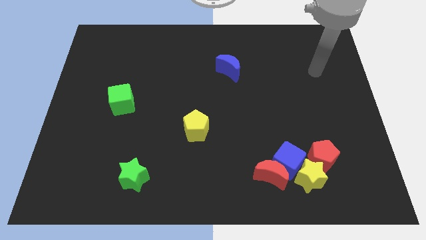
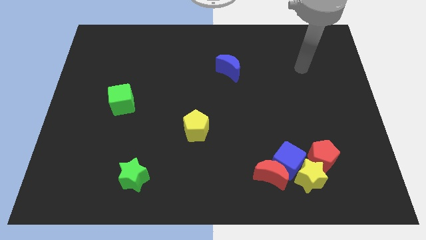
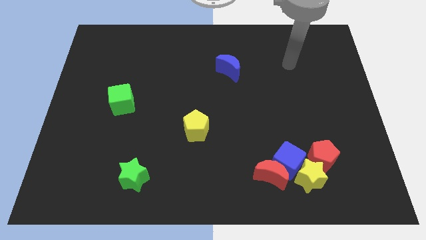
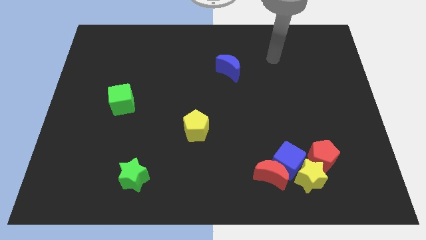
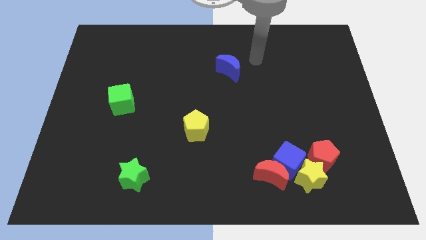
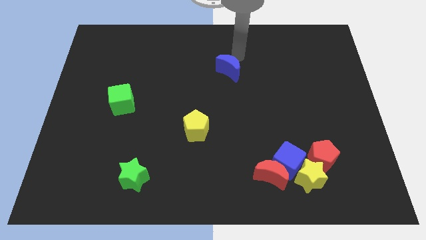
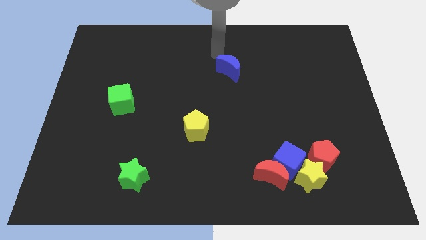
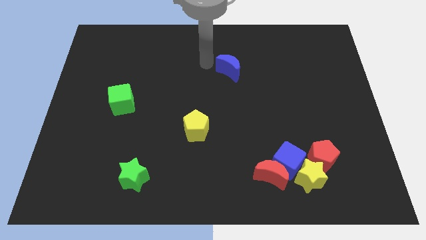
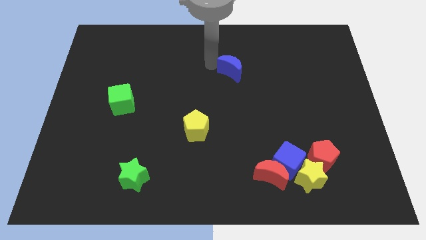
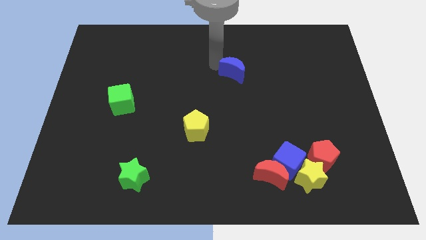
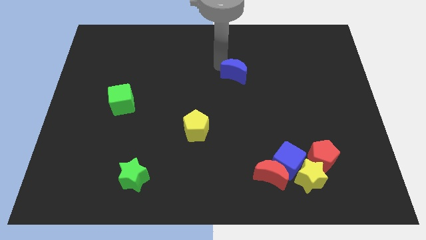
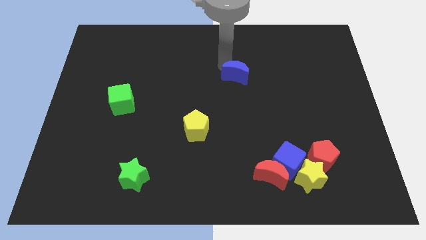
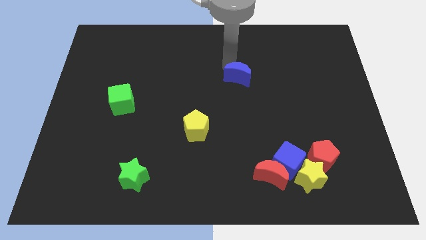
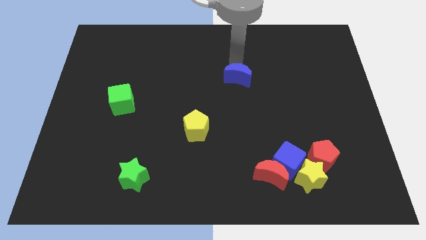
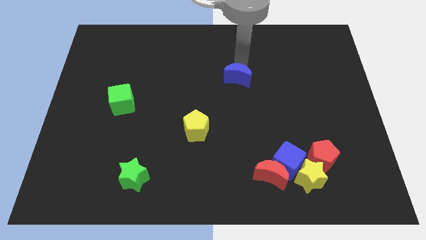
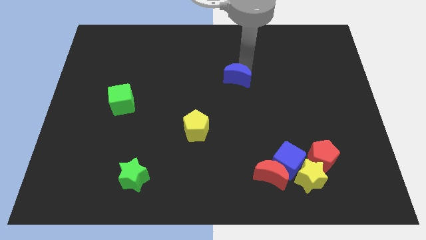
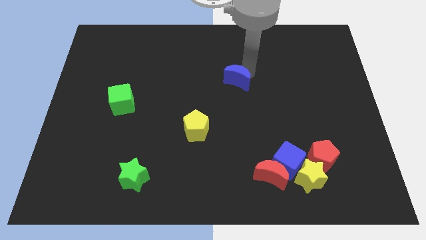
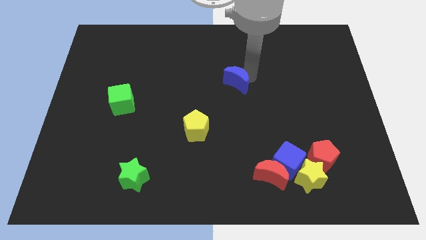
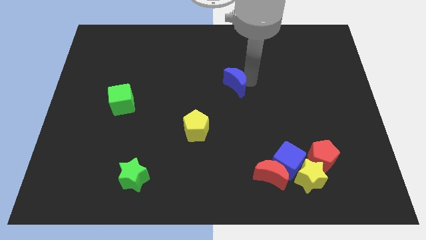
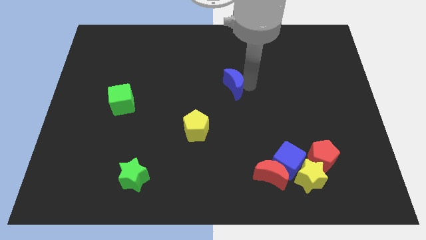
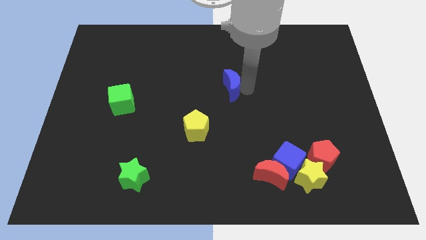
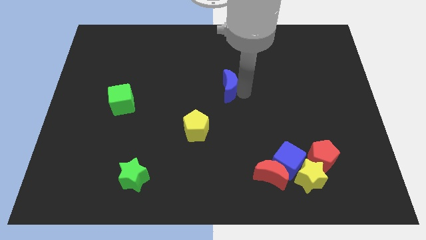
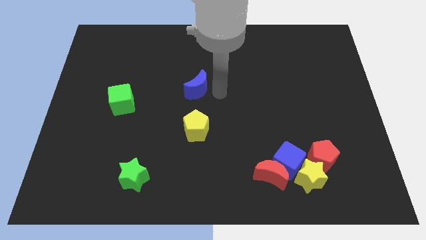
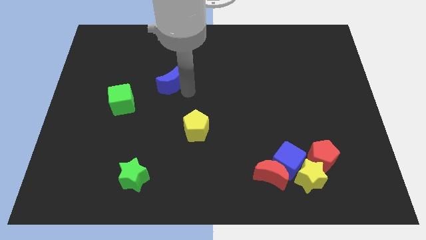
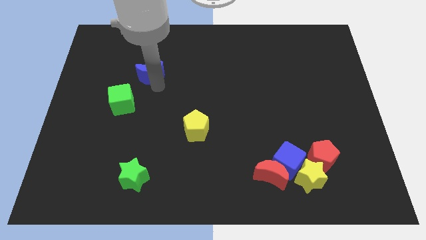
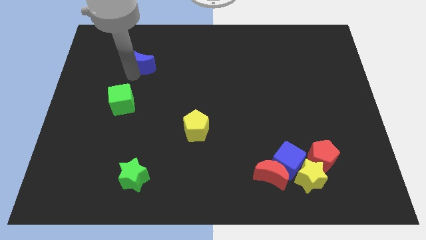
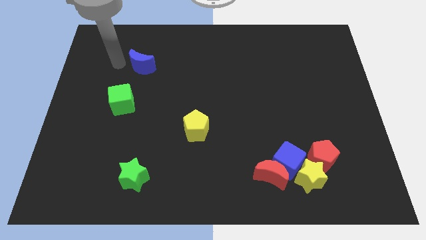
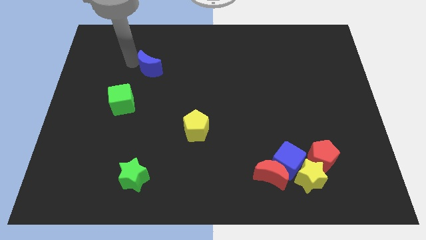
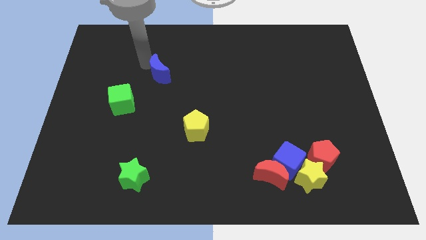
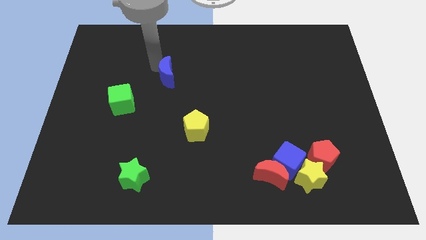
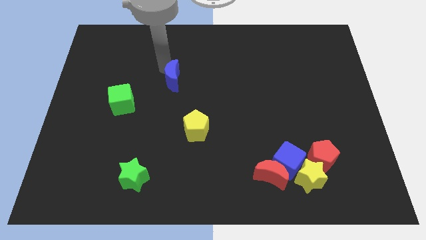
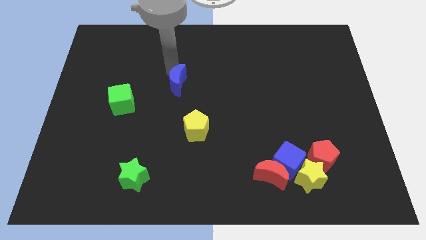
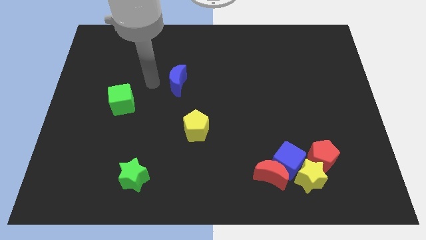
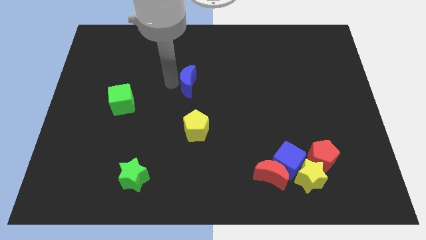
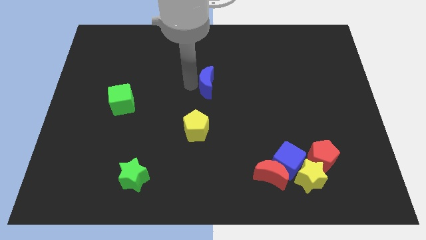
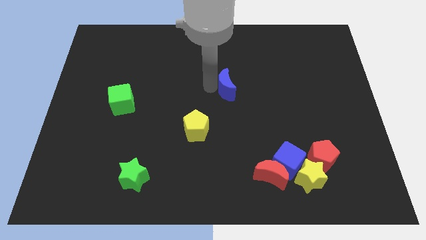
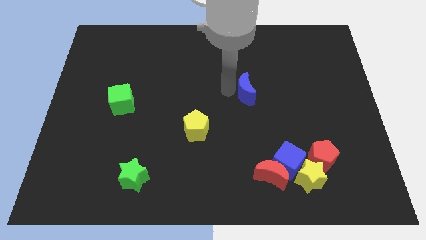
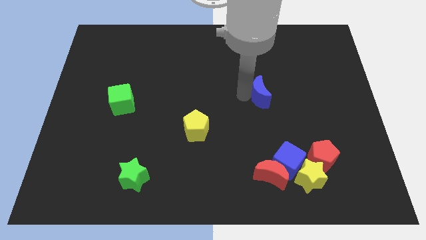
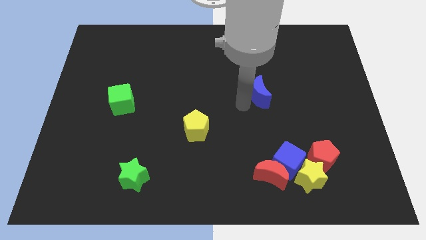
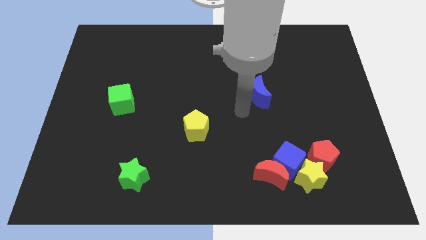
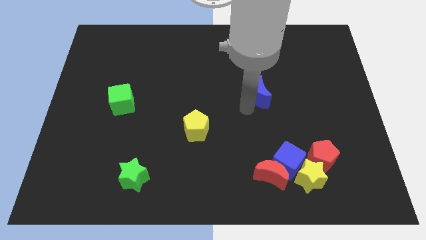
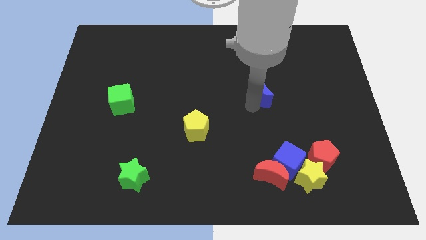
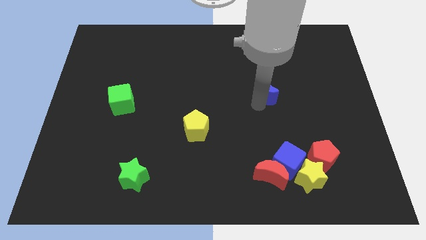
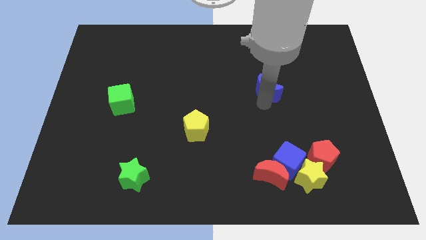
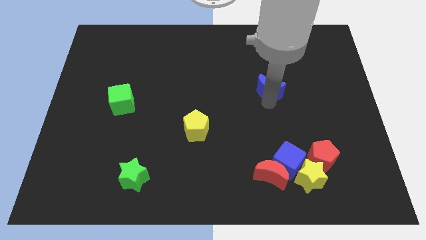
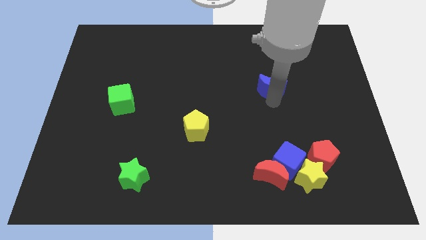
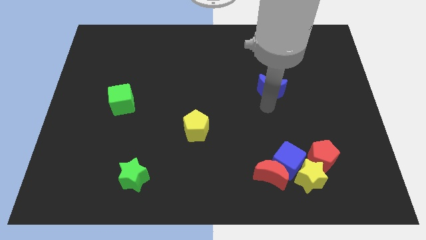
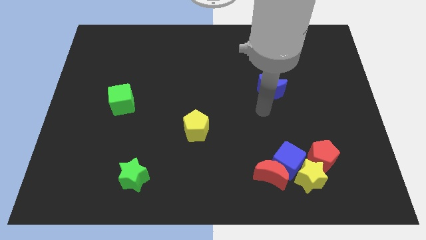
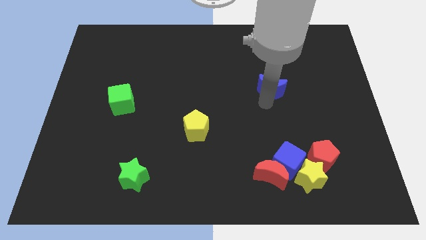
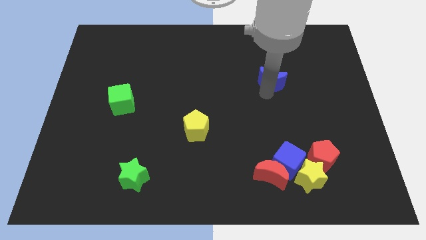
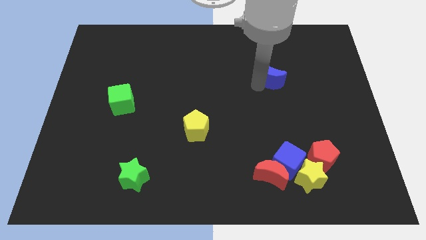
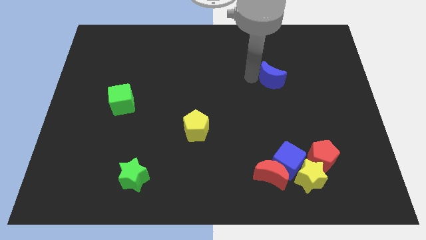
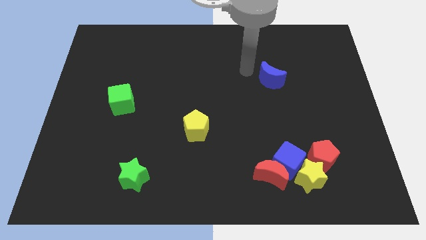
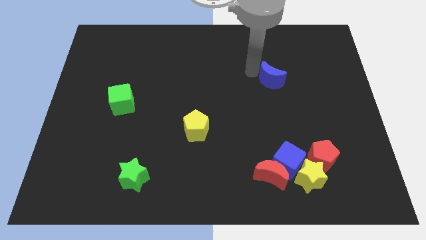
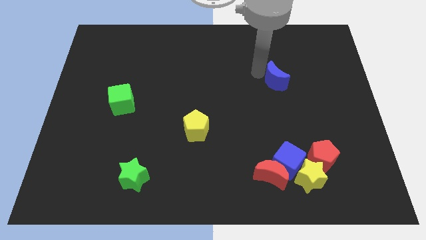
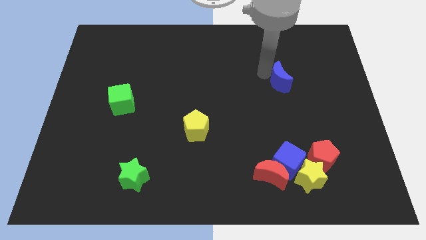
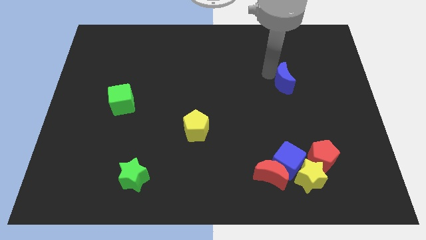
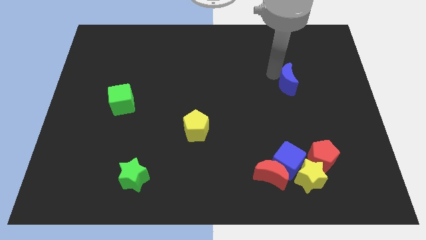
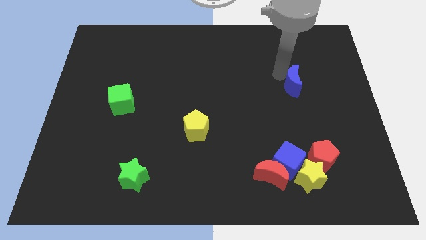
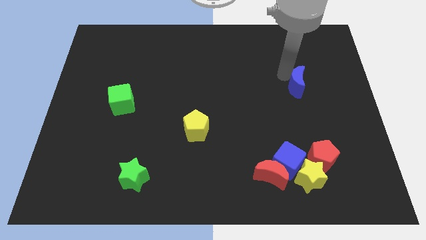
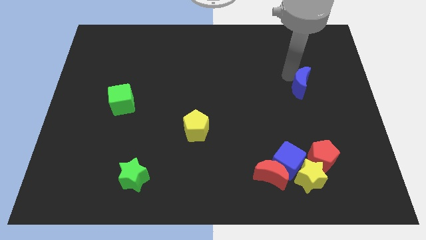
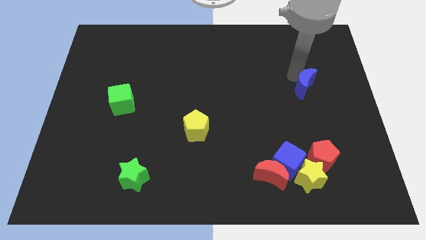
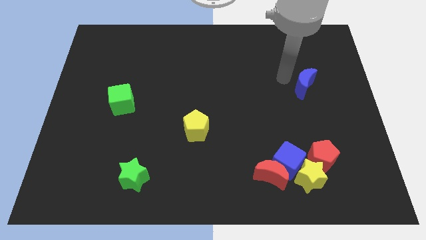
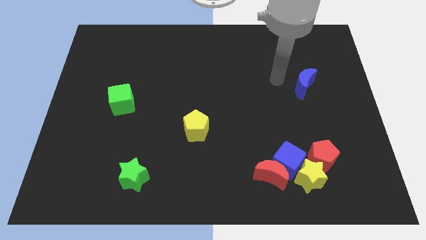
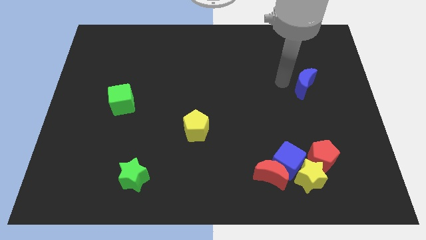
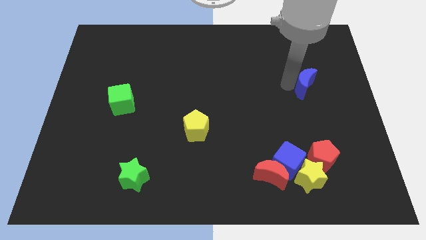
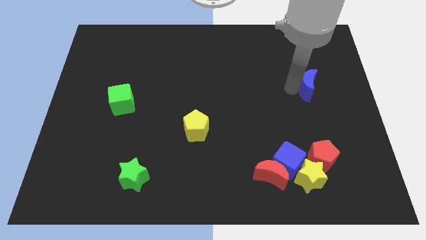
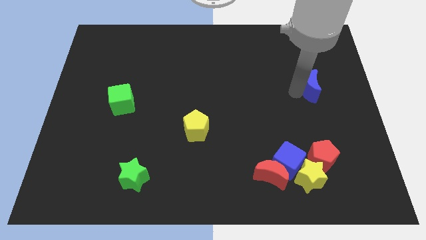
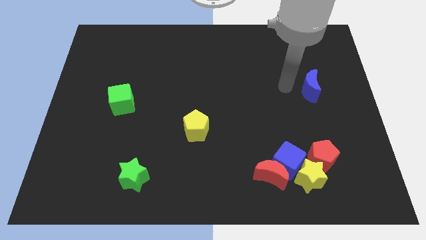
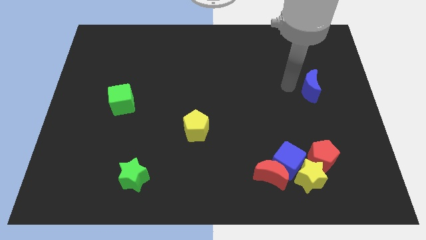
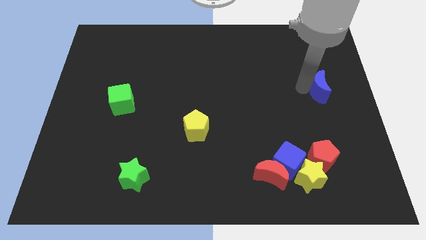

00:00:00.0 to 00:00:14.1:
put the blue moon to the right side

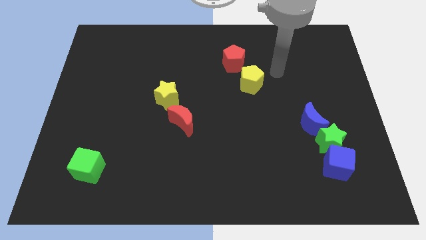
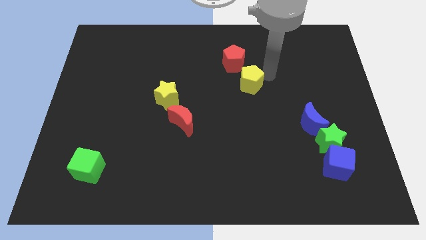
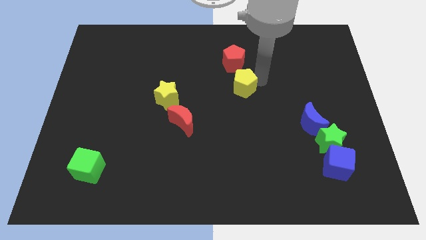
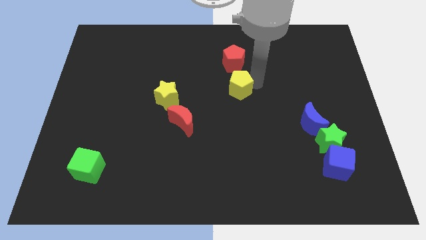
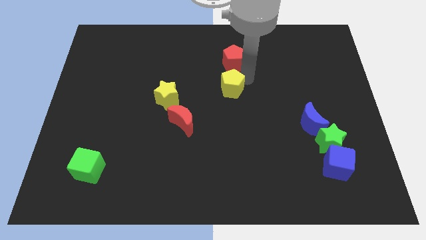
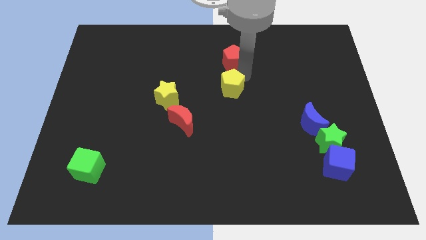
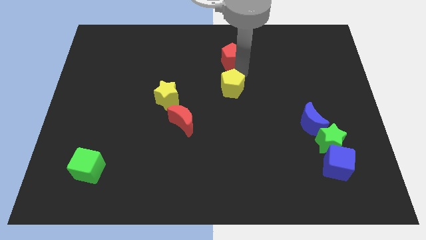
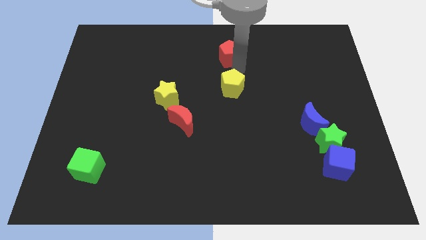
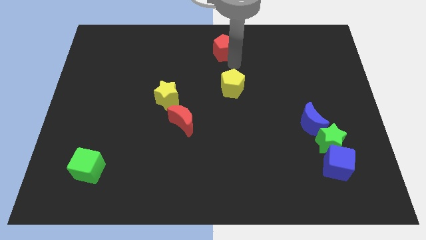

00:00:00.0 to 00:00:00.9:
push the red pentagon to the top side
